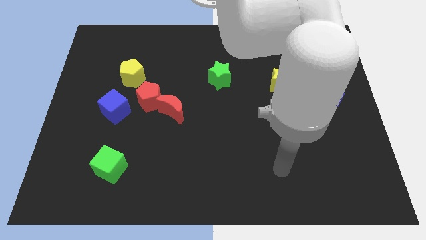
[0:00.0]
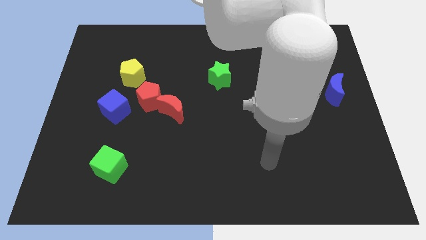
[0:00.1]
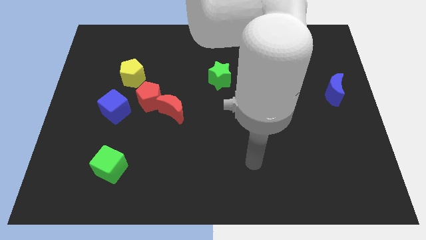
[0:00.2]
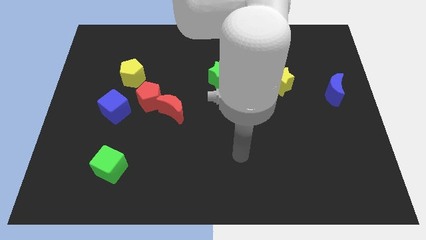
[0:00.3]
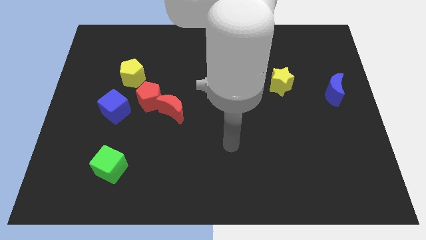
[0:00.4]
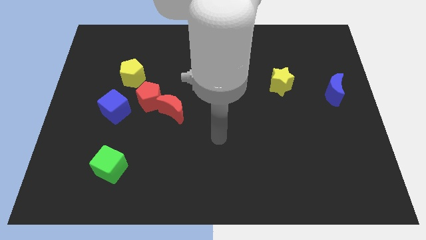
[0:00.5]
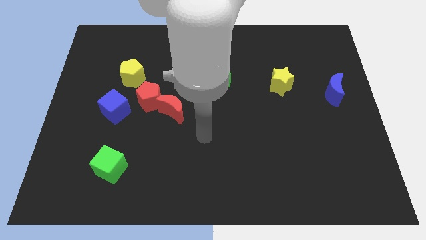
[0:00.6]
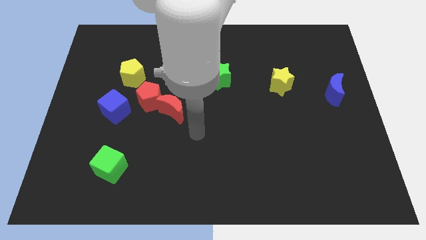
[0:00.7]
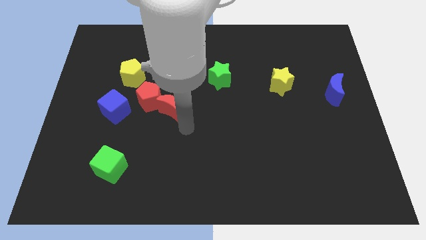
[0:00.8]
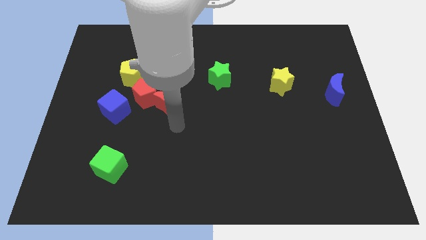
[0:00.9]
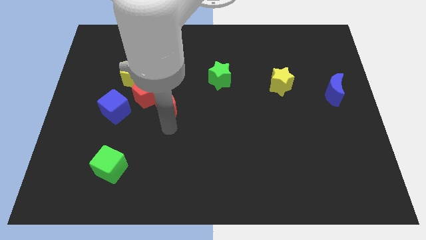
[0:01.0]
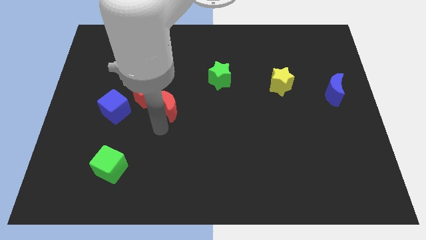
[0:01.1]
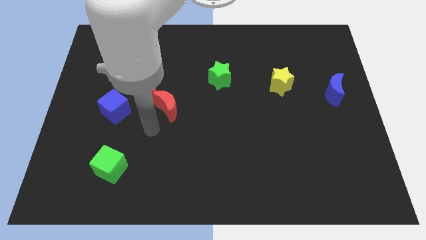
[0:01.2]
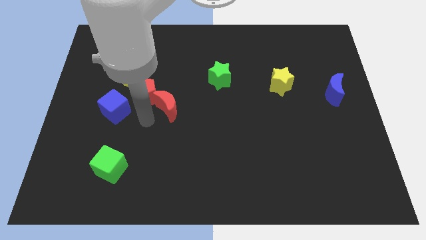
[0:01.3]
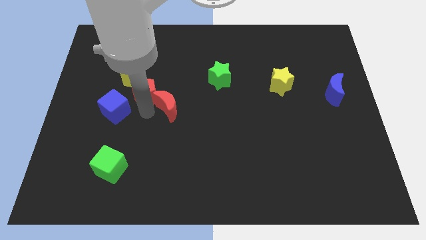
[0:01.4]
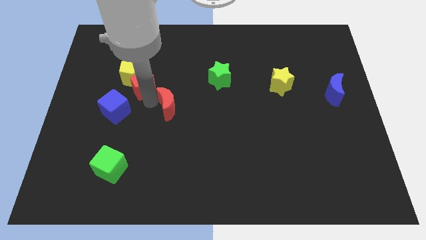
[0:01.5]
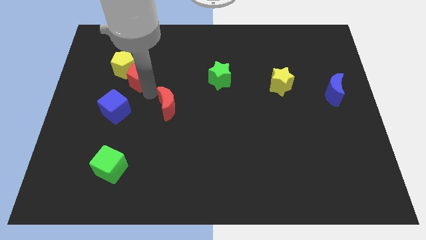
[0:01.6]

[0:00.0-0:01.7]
move the red moon away from the red pentagon

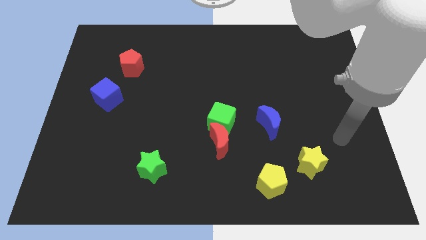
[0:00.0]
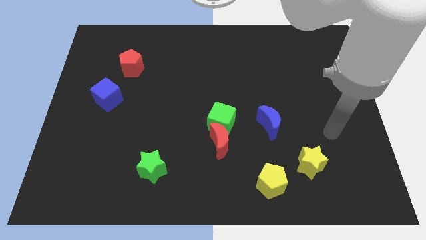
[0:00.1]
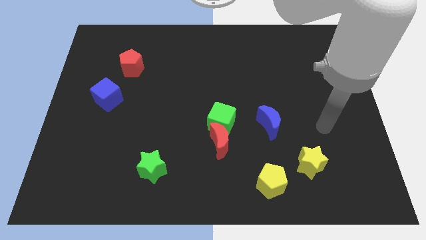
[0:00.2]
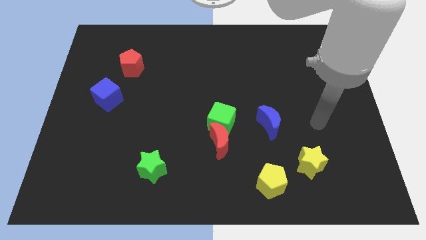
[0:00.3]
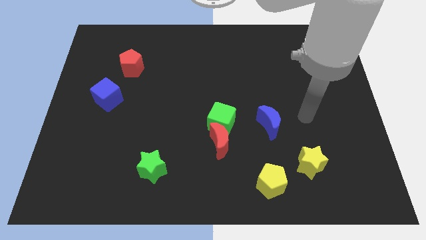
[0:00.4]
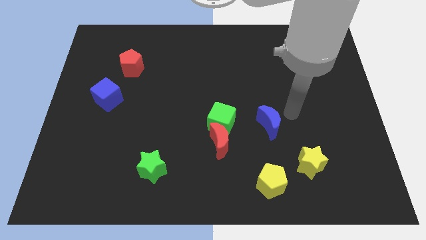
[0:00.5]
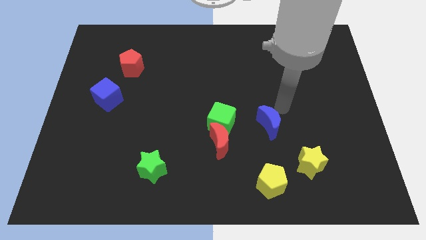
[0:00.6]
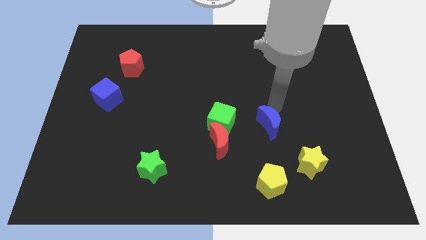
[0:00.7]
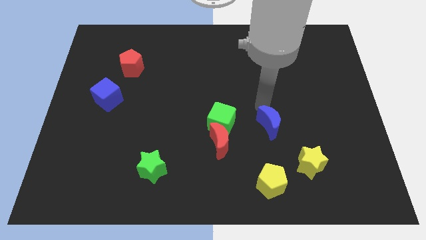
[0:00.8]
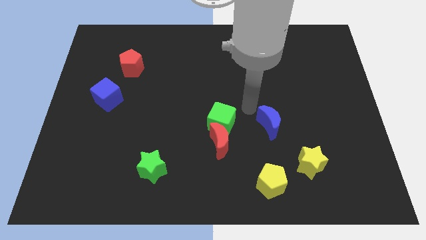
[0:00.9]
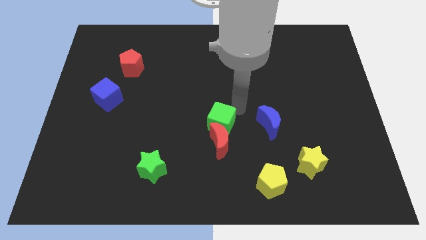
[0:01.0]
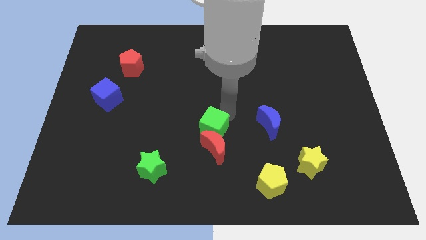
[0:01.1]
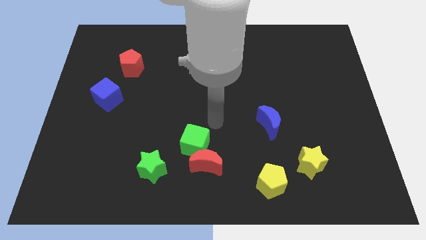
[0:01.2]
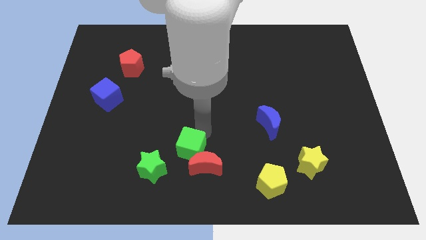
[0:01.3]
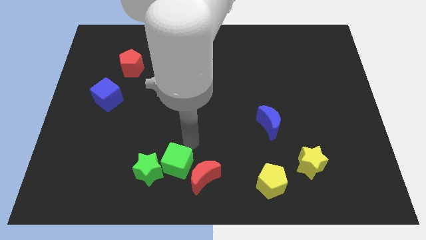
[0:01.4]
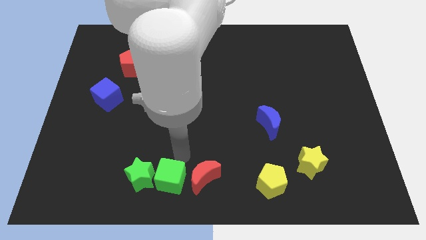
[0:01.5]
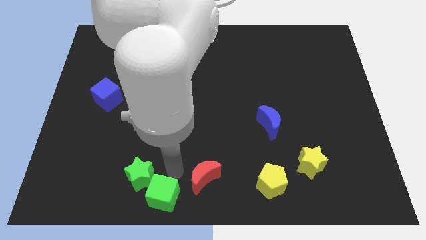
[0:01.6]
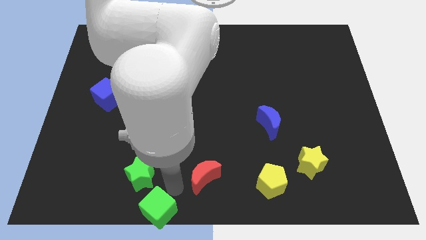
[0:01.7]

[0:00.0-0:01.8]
separate the red moon from the green cube

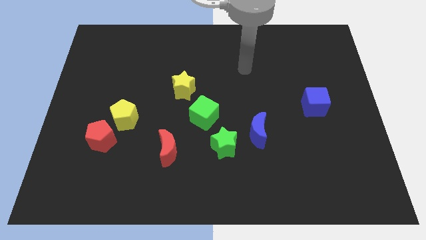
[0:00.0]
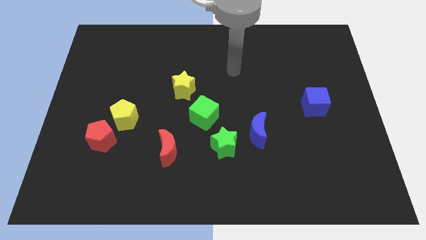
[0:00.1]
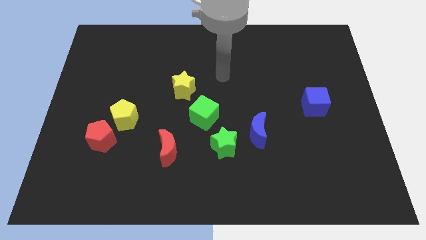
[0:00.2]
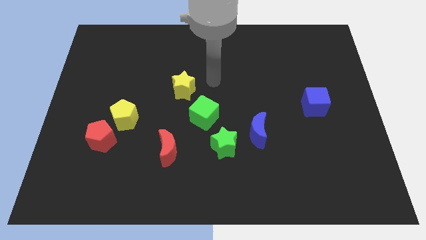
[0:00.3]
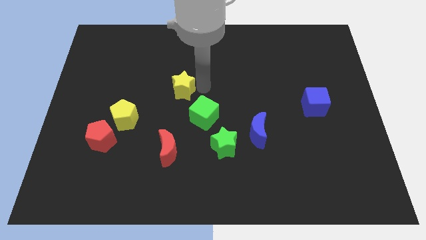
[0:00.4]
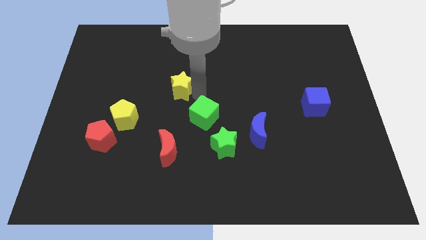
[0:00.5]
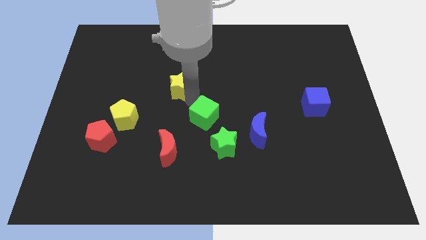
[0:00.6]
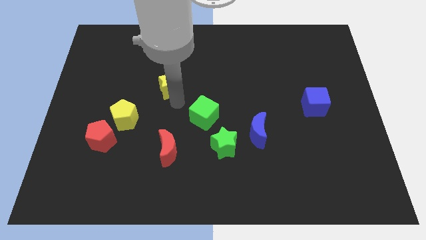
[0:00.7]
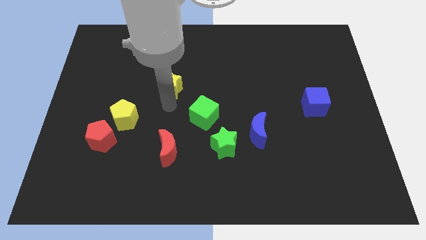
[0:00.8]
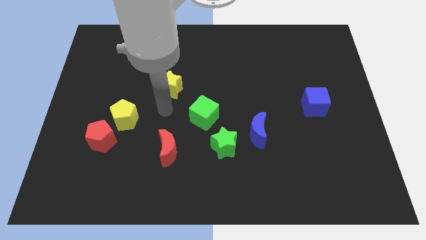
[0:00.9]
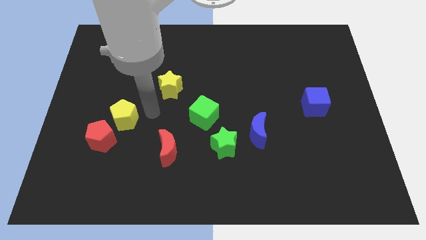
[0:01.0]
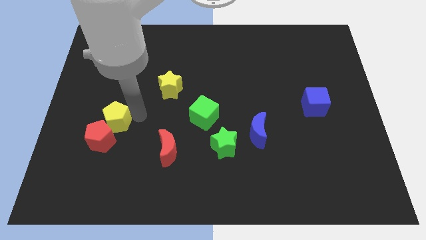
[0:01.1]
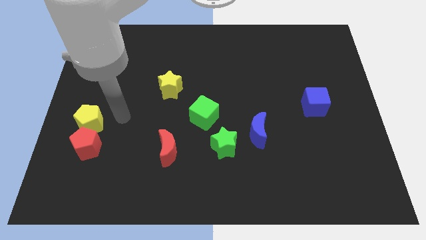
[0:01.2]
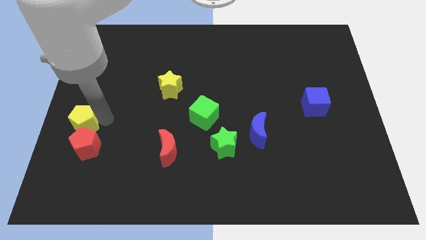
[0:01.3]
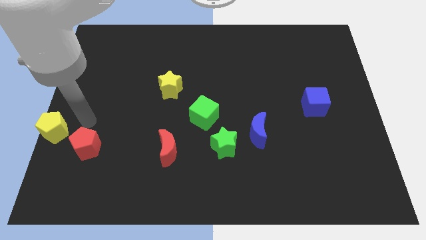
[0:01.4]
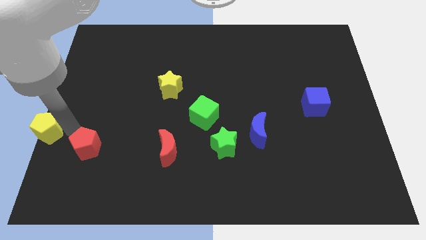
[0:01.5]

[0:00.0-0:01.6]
move the red pentagon away from the yellow pentagon

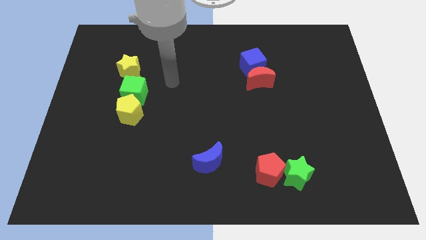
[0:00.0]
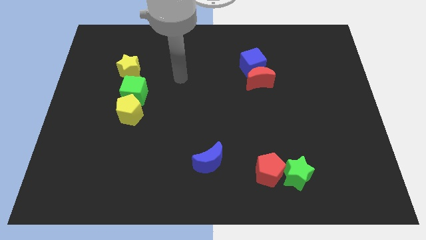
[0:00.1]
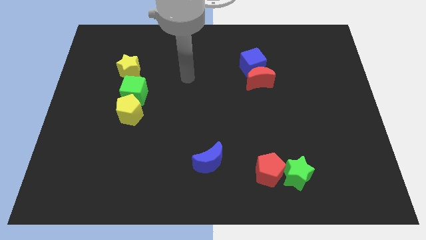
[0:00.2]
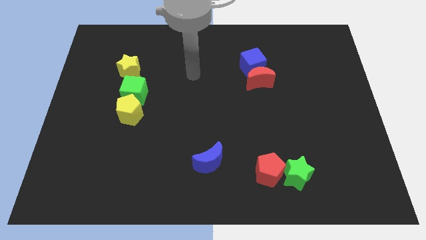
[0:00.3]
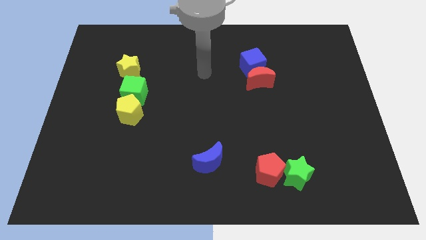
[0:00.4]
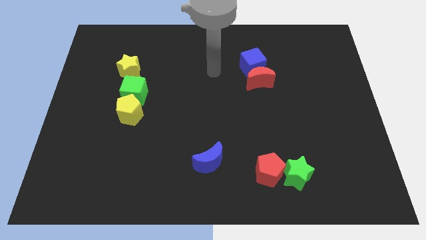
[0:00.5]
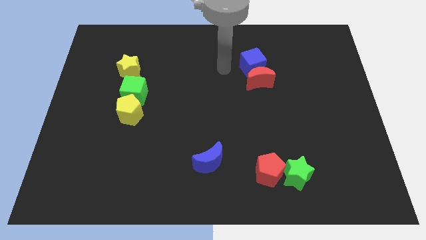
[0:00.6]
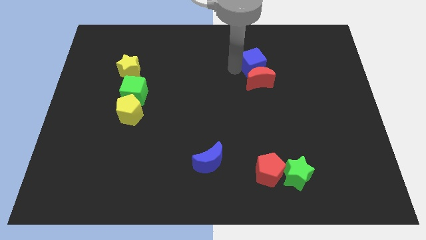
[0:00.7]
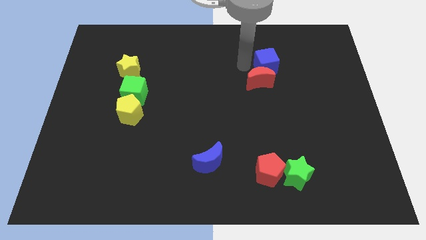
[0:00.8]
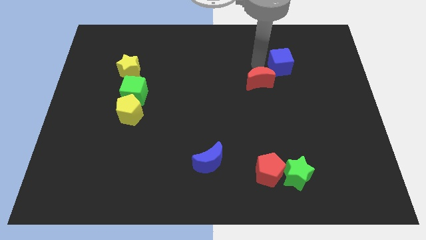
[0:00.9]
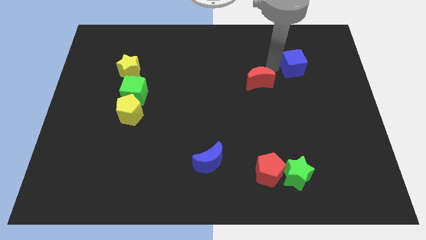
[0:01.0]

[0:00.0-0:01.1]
pull the red moon apart from the blue cube

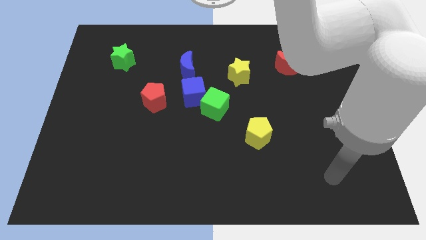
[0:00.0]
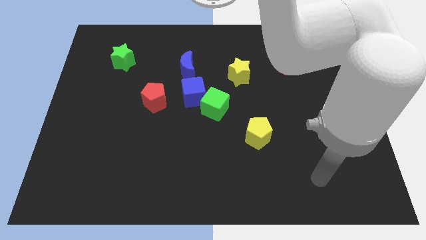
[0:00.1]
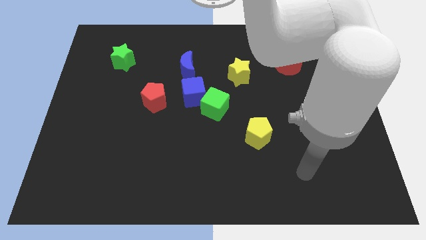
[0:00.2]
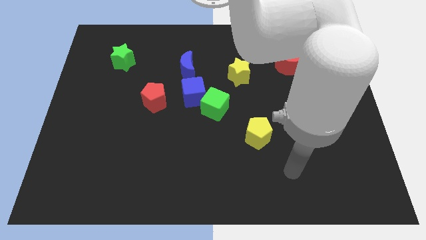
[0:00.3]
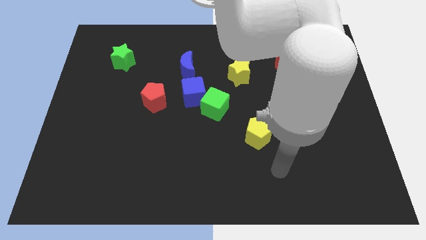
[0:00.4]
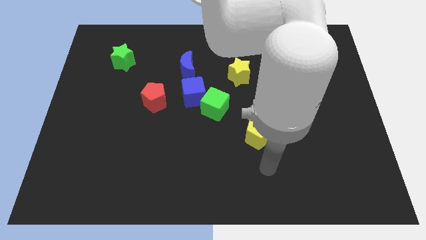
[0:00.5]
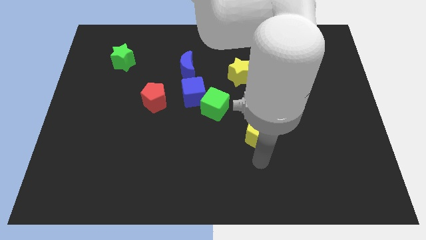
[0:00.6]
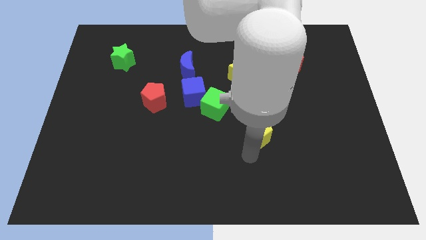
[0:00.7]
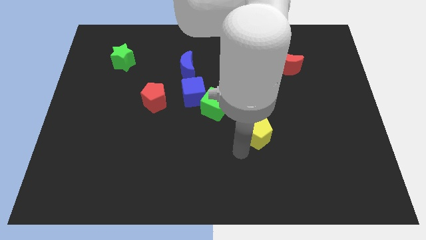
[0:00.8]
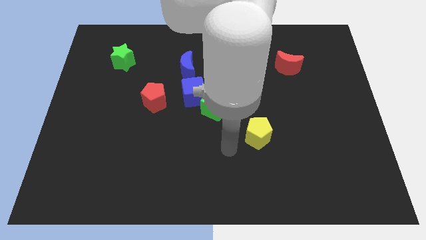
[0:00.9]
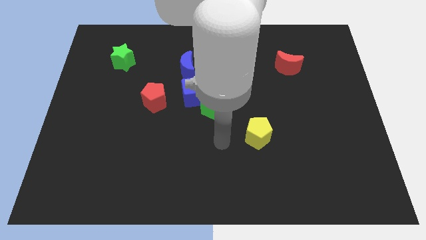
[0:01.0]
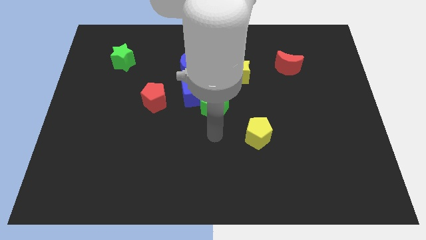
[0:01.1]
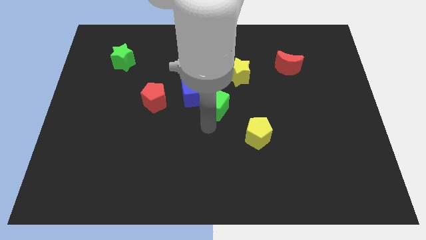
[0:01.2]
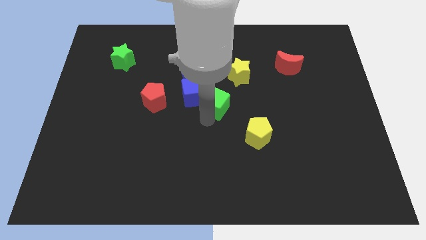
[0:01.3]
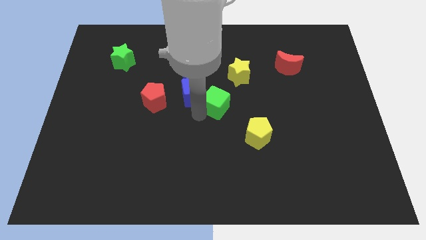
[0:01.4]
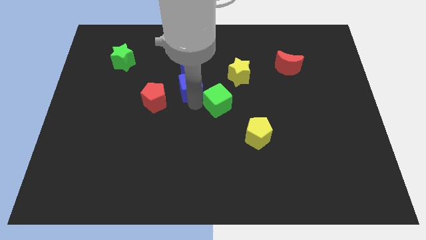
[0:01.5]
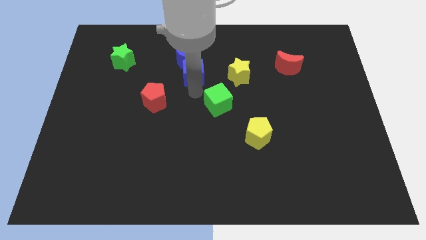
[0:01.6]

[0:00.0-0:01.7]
separate the green cube from the blue cube

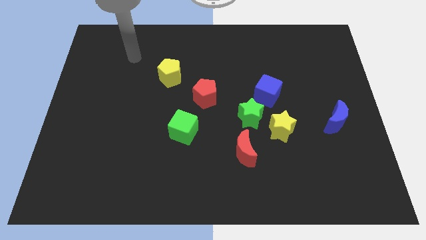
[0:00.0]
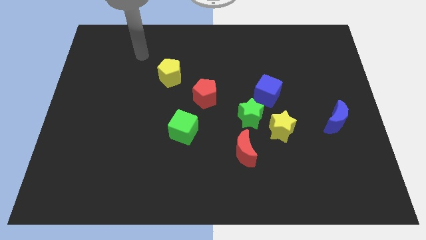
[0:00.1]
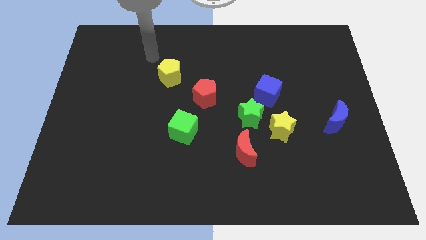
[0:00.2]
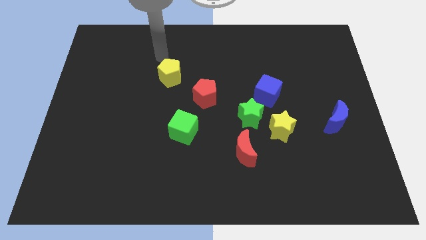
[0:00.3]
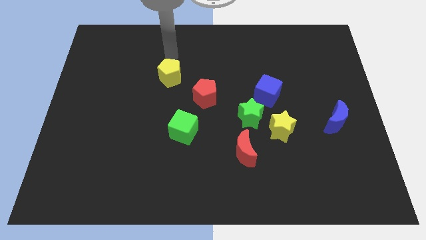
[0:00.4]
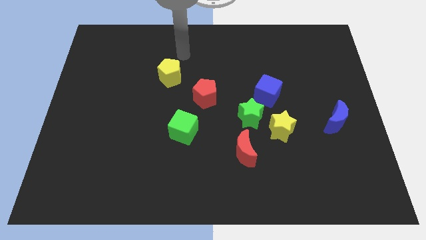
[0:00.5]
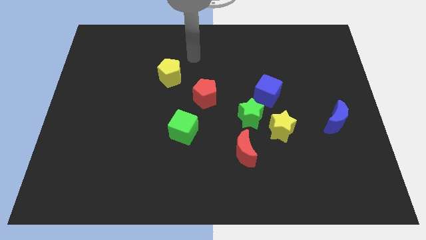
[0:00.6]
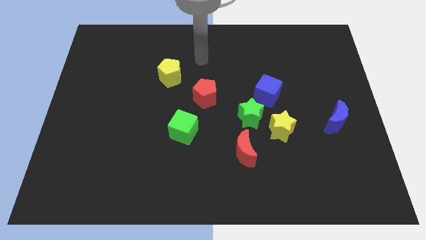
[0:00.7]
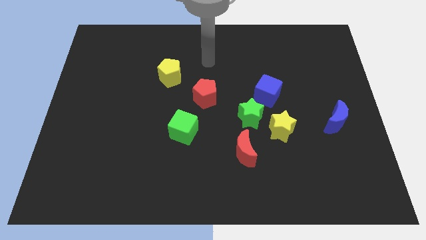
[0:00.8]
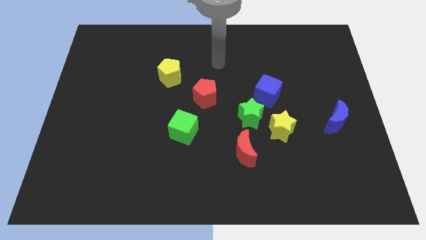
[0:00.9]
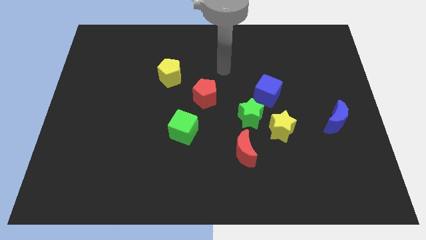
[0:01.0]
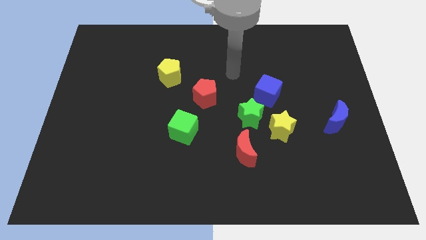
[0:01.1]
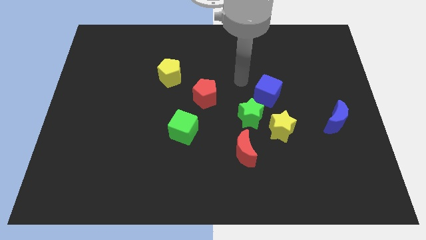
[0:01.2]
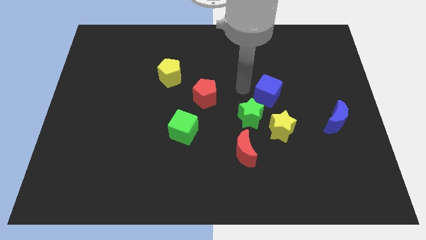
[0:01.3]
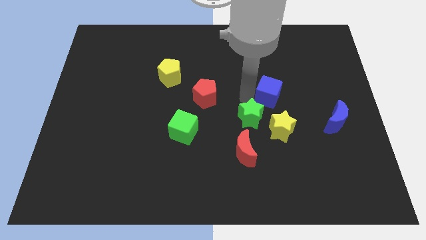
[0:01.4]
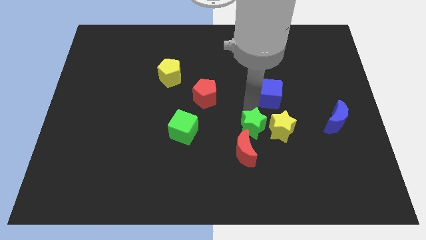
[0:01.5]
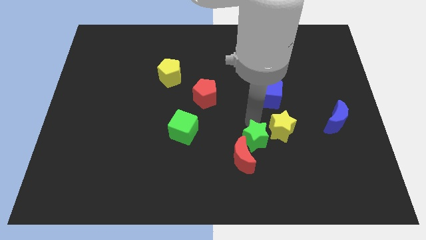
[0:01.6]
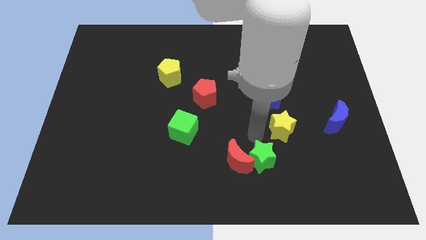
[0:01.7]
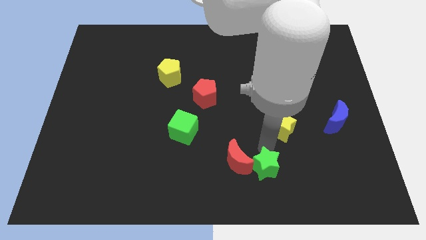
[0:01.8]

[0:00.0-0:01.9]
separate the yellow star from the green star
